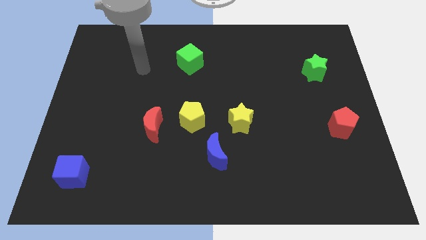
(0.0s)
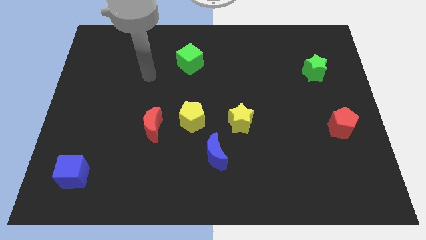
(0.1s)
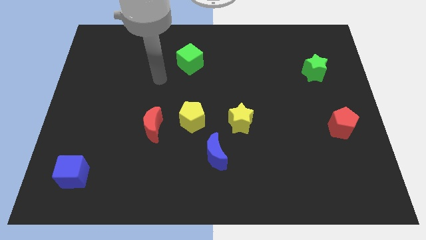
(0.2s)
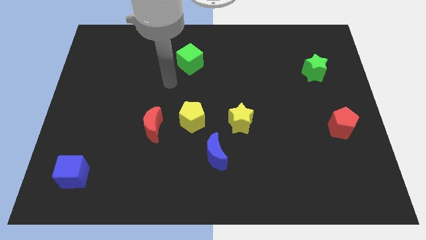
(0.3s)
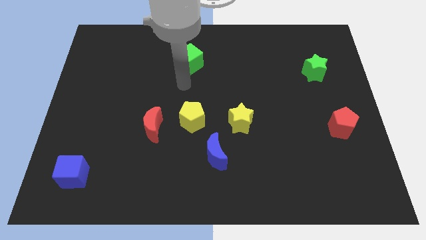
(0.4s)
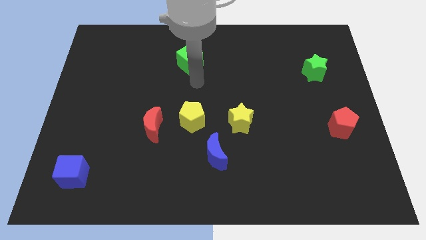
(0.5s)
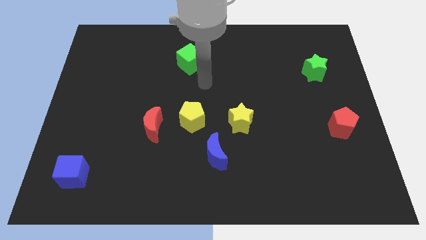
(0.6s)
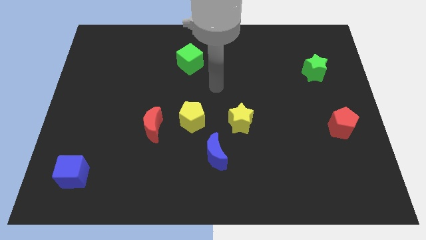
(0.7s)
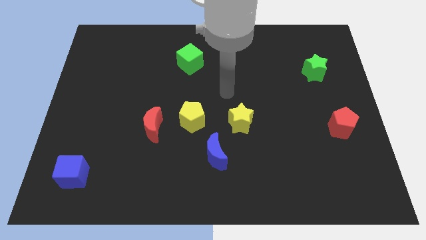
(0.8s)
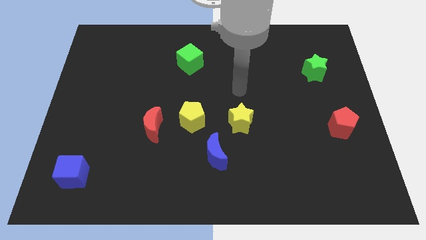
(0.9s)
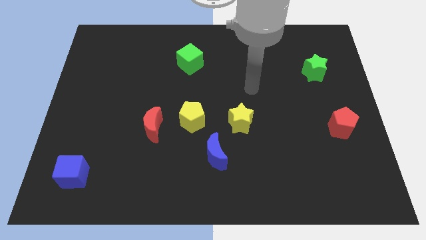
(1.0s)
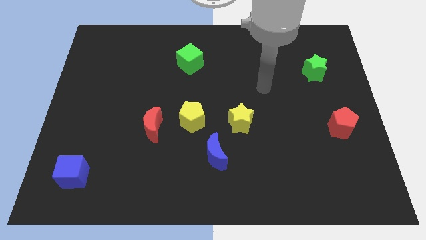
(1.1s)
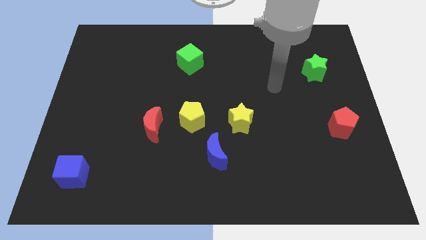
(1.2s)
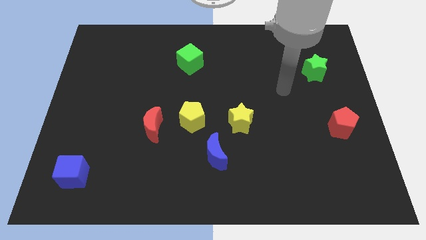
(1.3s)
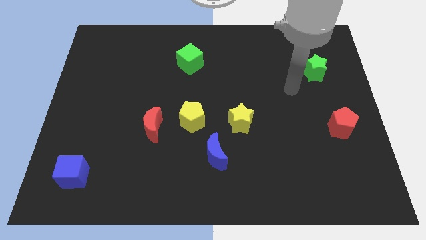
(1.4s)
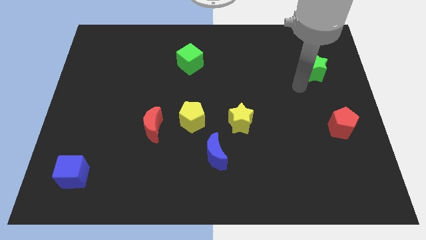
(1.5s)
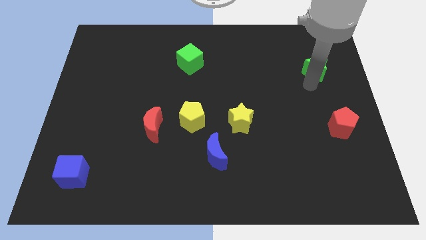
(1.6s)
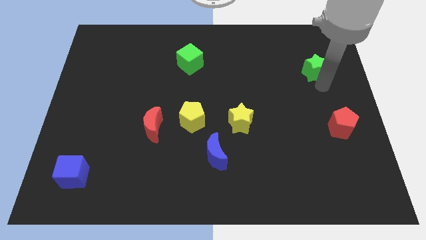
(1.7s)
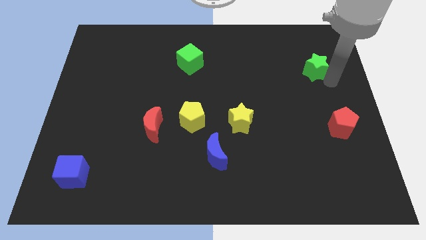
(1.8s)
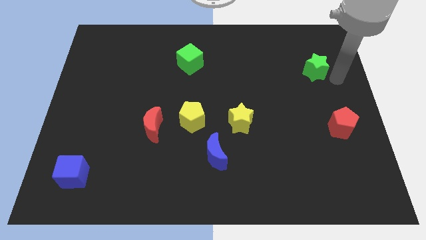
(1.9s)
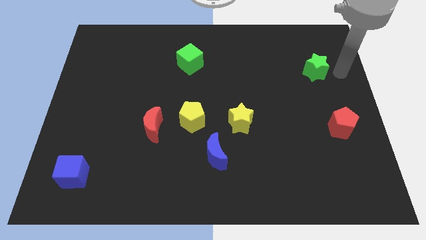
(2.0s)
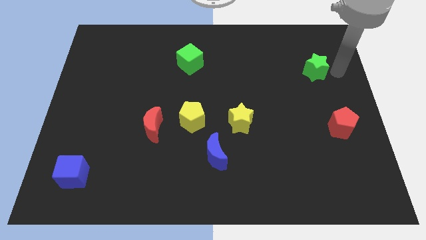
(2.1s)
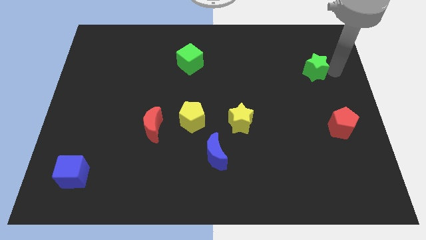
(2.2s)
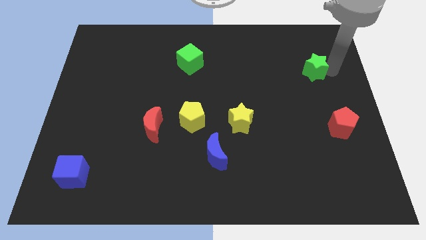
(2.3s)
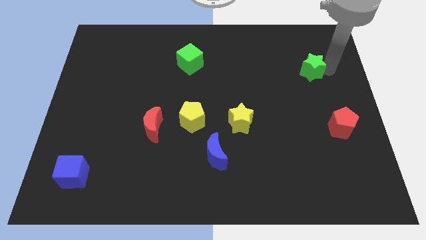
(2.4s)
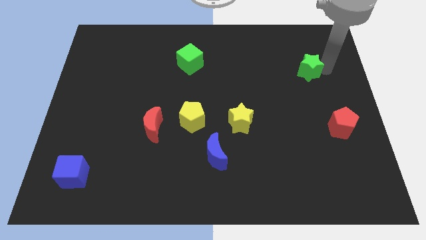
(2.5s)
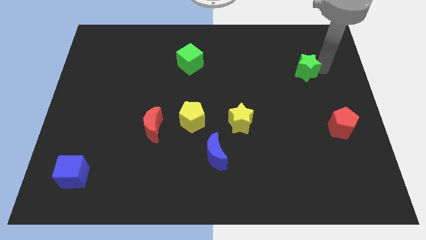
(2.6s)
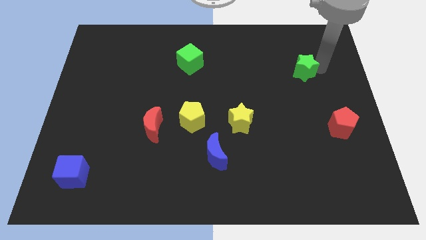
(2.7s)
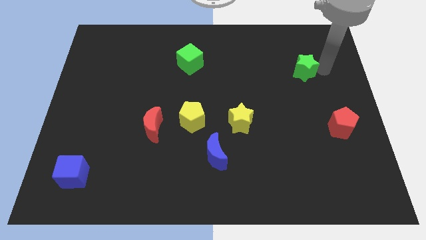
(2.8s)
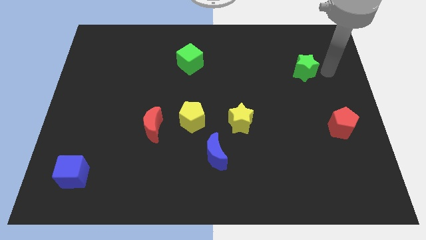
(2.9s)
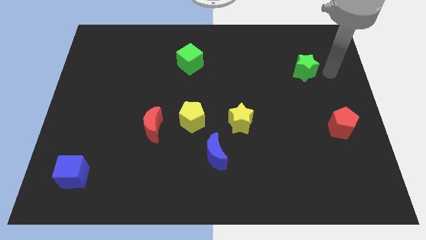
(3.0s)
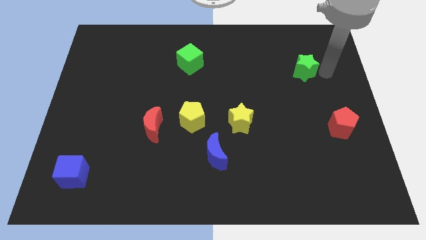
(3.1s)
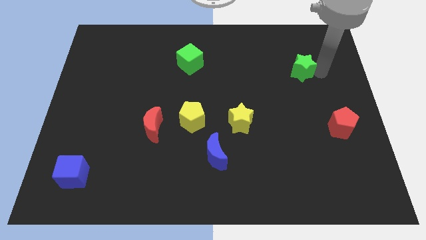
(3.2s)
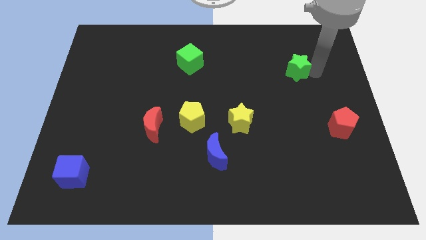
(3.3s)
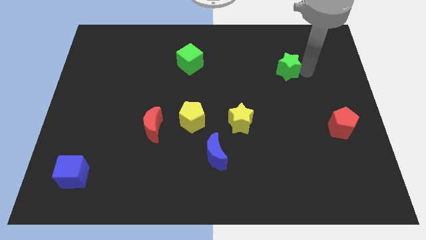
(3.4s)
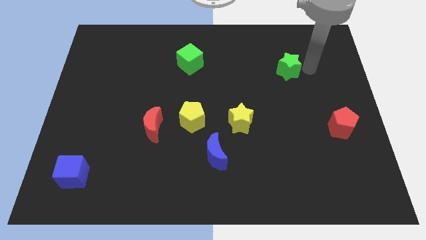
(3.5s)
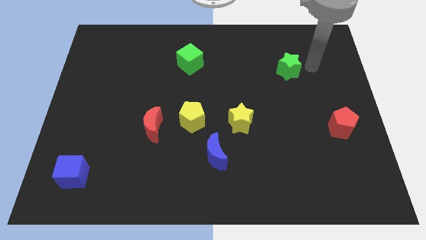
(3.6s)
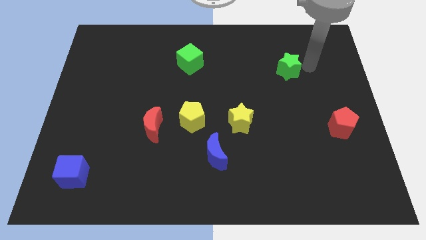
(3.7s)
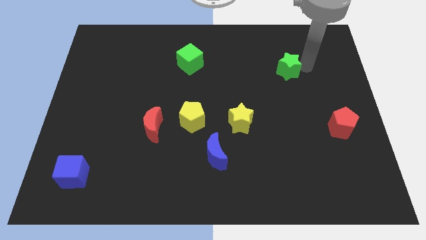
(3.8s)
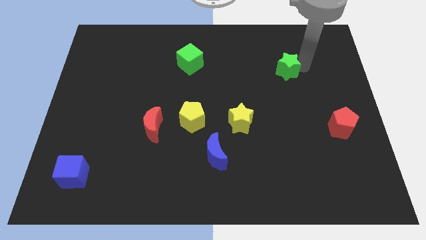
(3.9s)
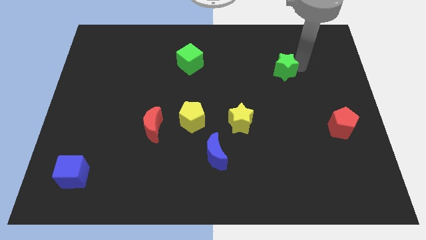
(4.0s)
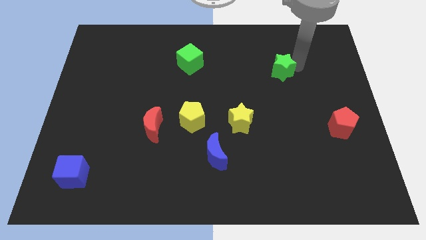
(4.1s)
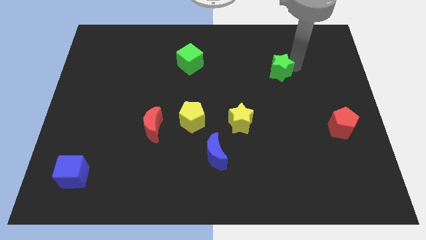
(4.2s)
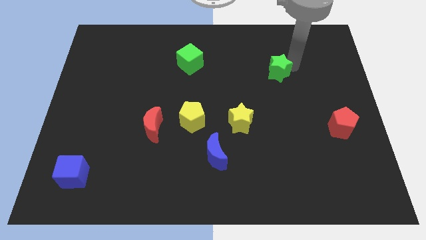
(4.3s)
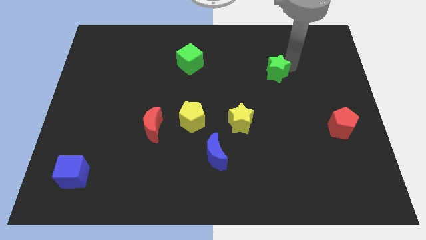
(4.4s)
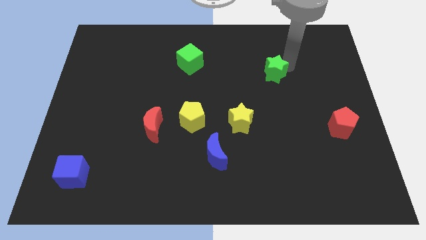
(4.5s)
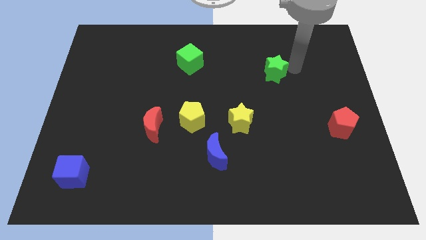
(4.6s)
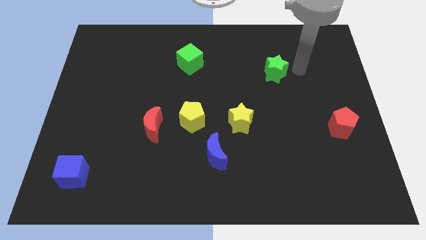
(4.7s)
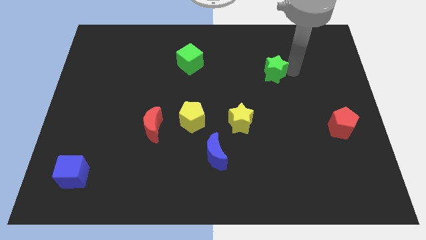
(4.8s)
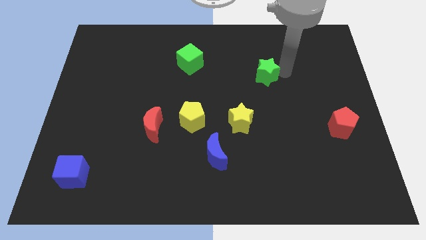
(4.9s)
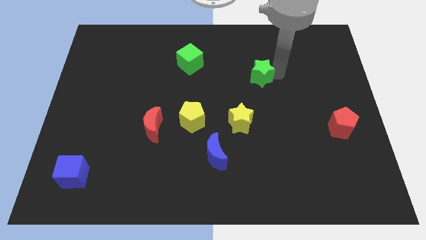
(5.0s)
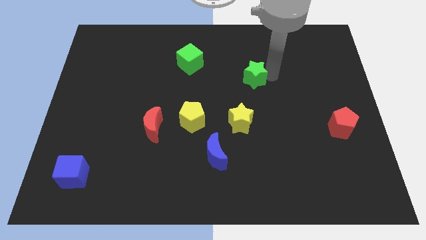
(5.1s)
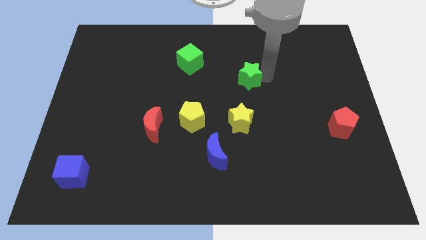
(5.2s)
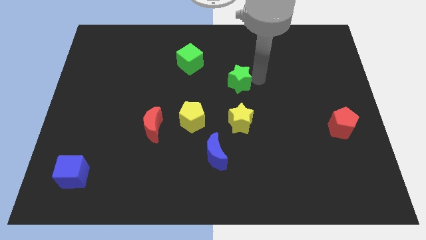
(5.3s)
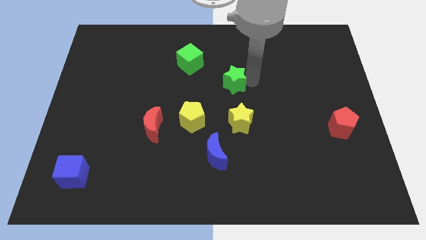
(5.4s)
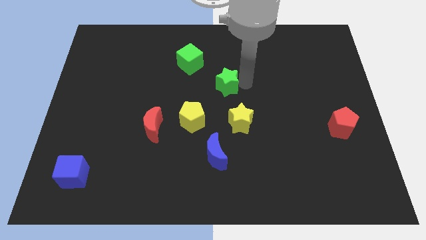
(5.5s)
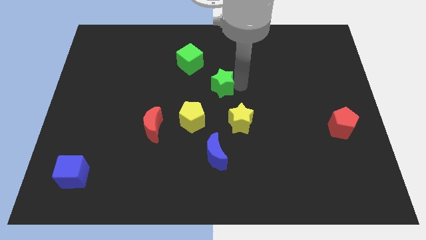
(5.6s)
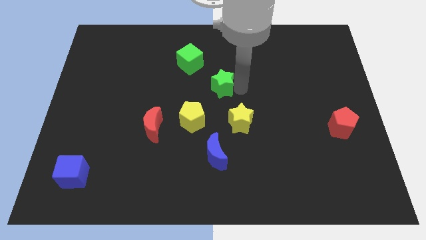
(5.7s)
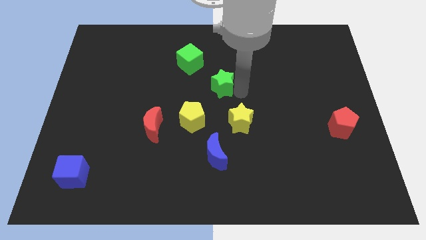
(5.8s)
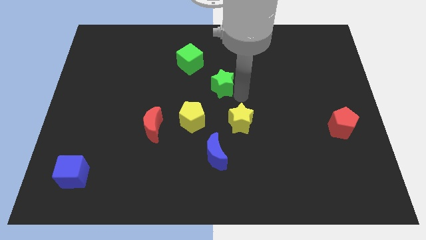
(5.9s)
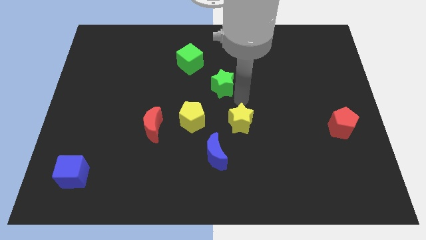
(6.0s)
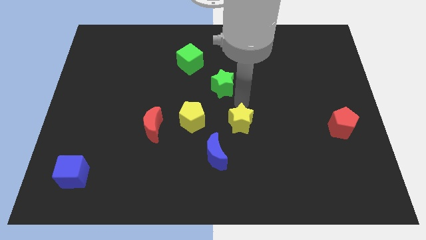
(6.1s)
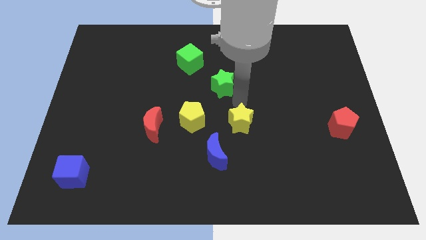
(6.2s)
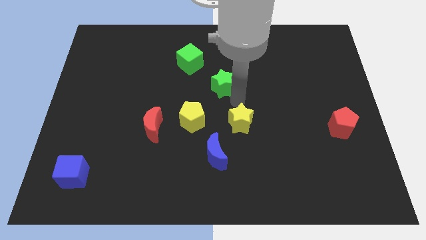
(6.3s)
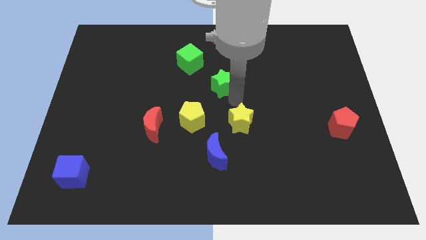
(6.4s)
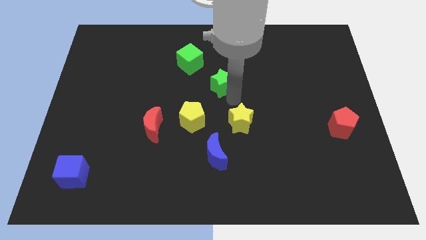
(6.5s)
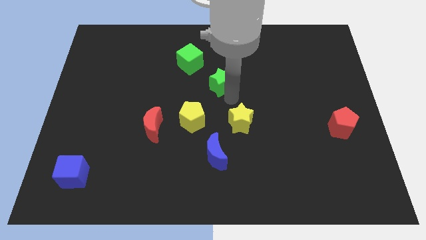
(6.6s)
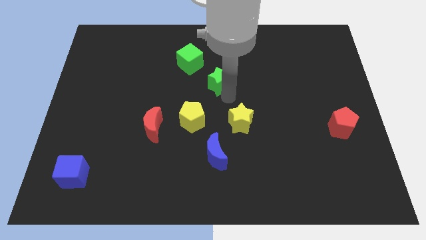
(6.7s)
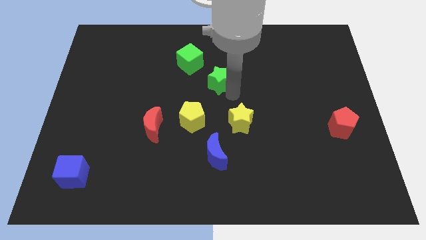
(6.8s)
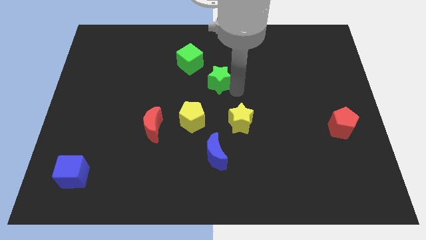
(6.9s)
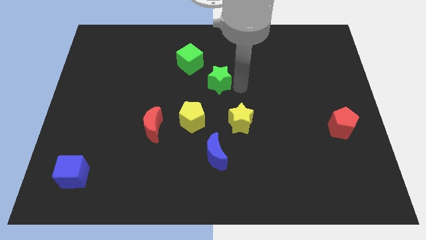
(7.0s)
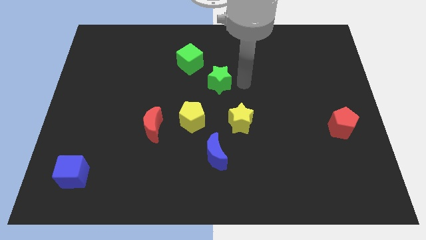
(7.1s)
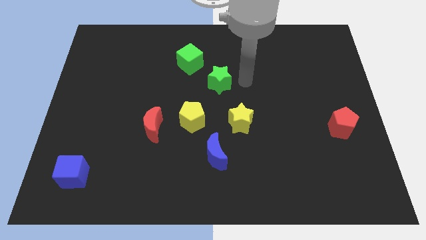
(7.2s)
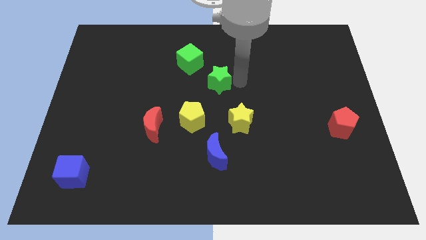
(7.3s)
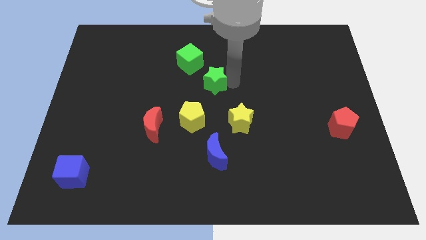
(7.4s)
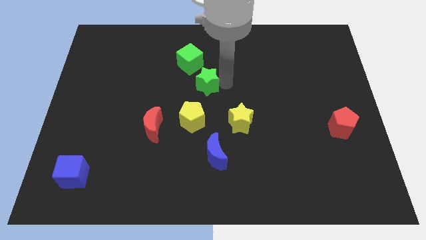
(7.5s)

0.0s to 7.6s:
slide the green star to the top side of the yellow pentagon
